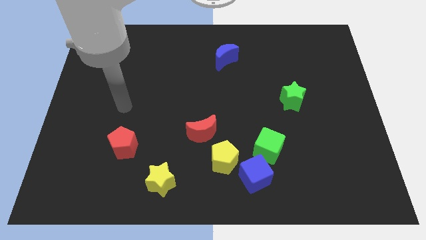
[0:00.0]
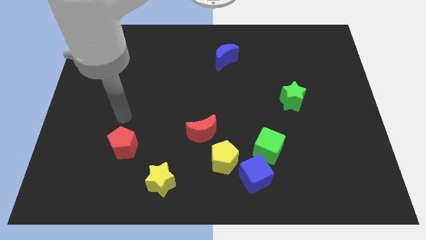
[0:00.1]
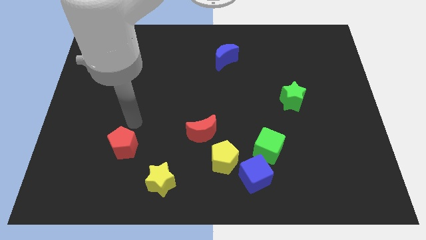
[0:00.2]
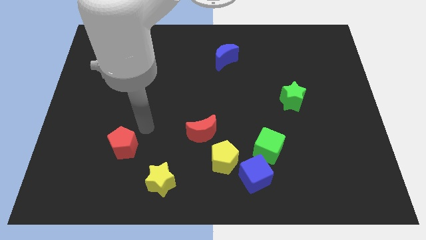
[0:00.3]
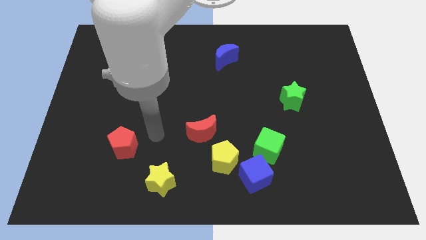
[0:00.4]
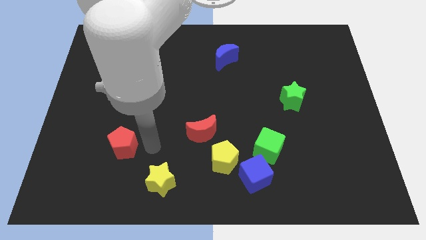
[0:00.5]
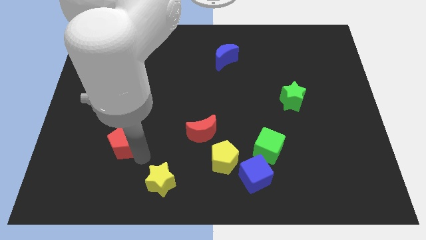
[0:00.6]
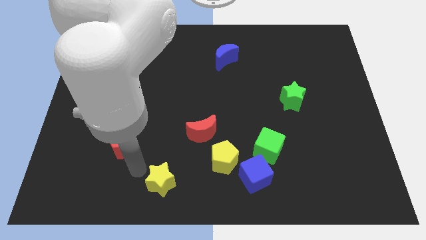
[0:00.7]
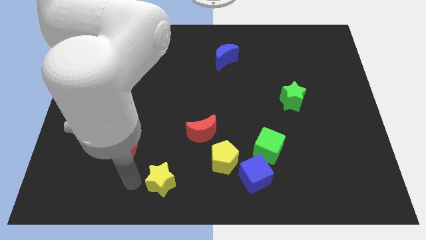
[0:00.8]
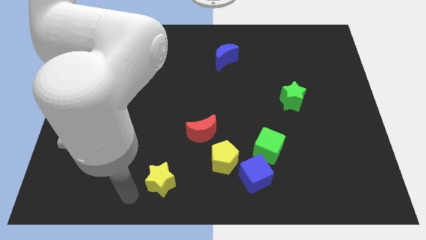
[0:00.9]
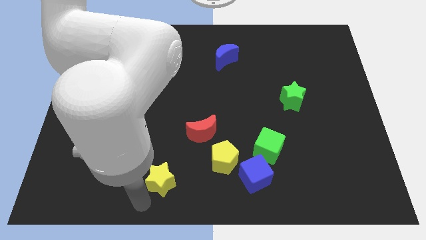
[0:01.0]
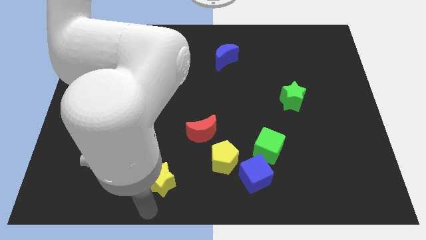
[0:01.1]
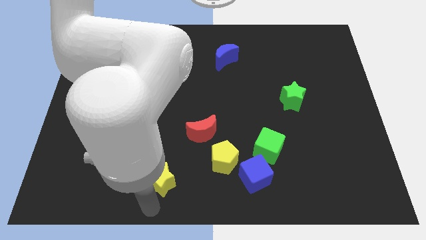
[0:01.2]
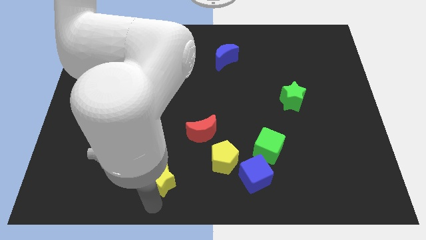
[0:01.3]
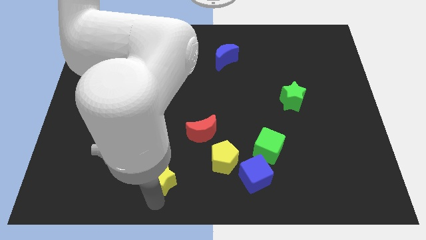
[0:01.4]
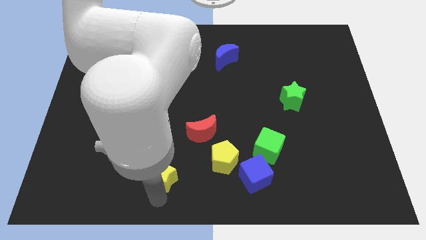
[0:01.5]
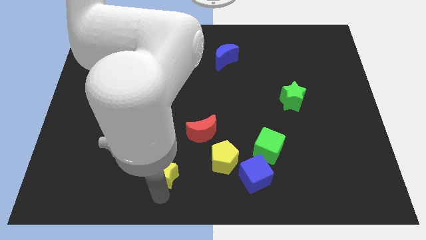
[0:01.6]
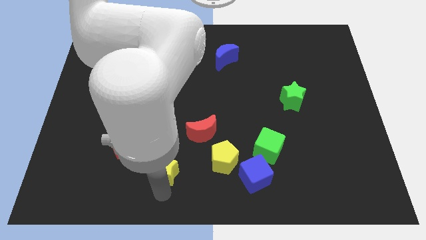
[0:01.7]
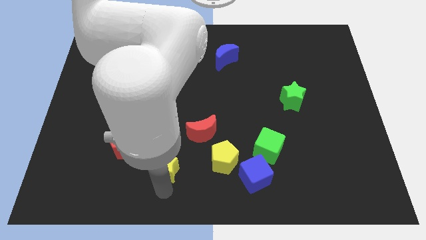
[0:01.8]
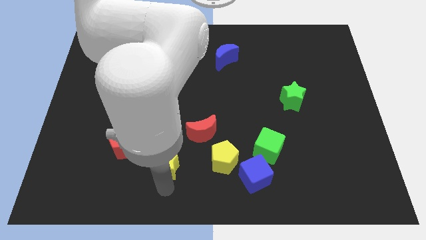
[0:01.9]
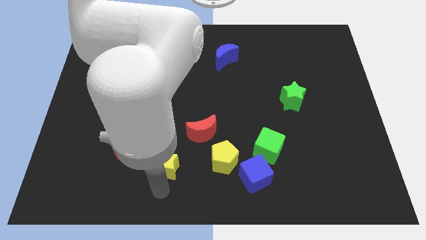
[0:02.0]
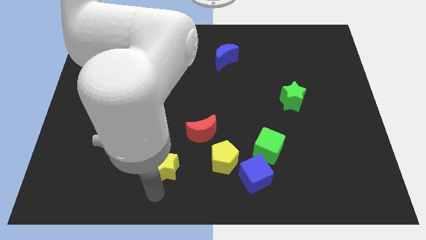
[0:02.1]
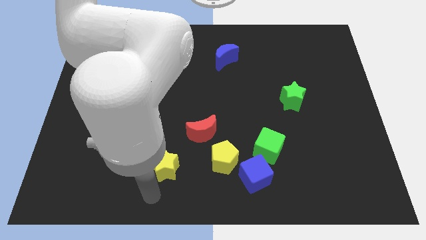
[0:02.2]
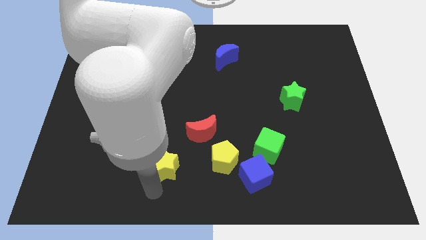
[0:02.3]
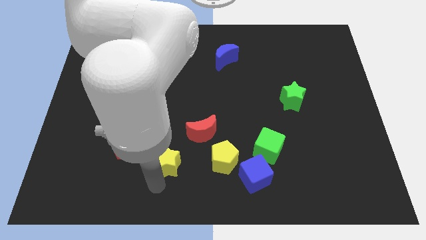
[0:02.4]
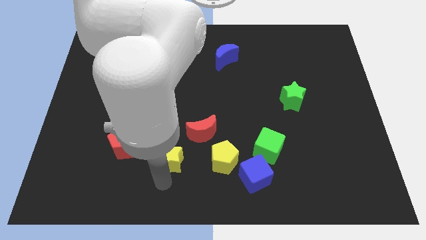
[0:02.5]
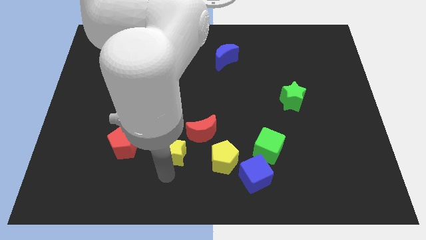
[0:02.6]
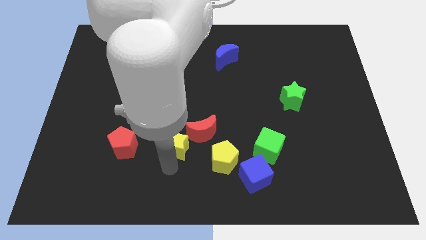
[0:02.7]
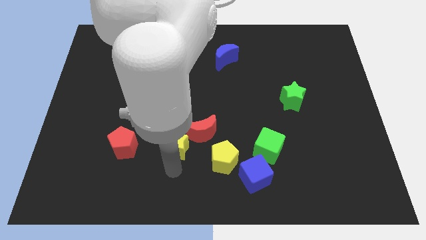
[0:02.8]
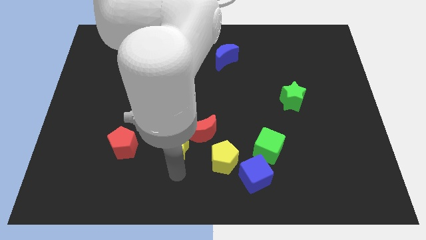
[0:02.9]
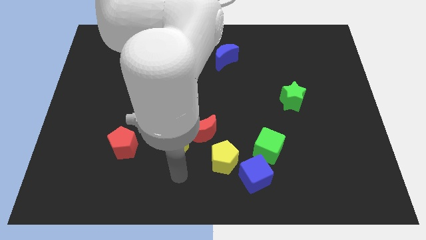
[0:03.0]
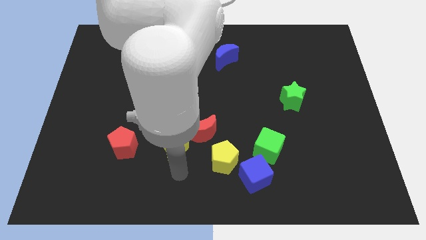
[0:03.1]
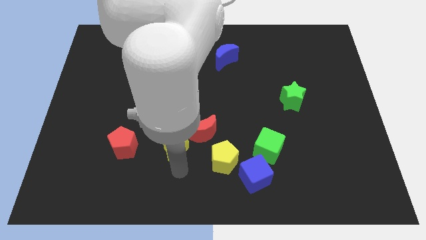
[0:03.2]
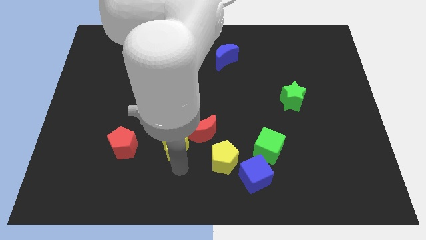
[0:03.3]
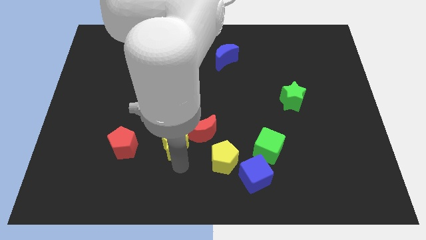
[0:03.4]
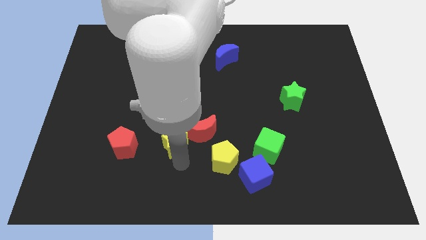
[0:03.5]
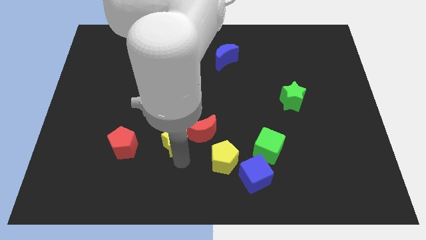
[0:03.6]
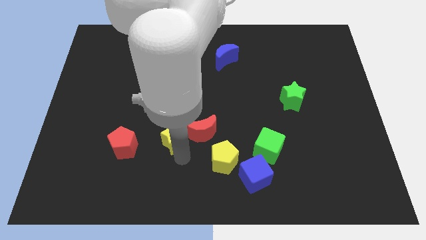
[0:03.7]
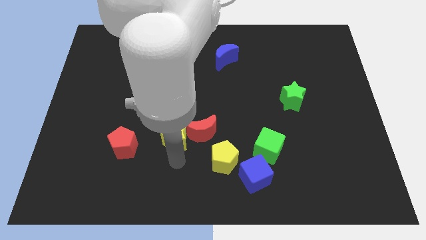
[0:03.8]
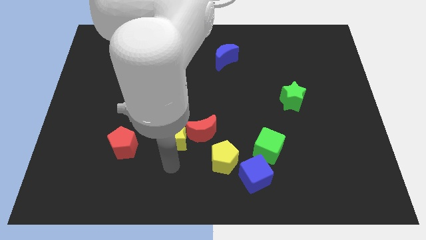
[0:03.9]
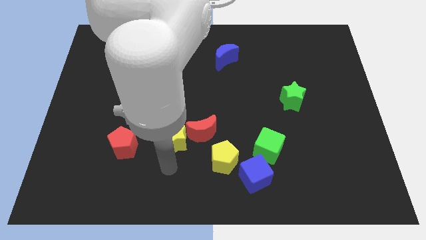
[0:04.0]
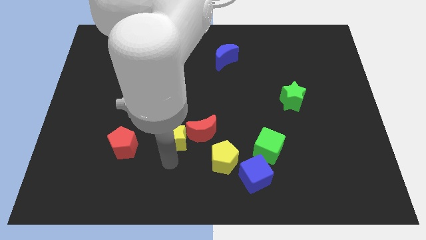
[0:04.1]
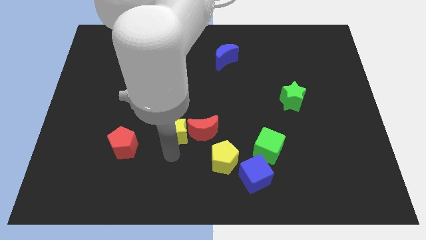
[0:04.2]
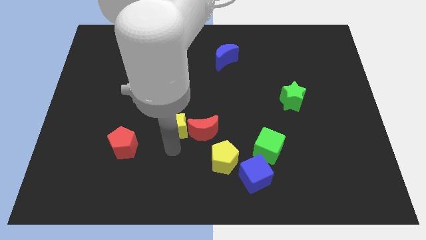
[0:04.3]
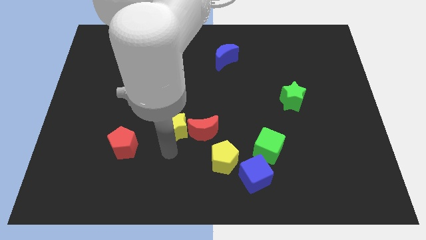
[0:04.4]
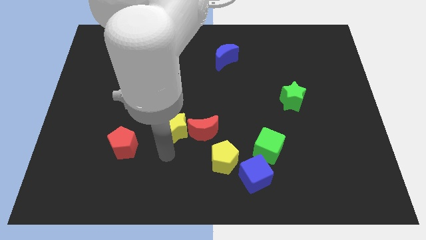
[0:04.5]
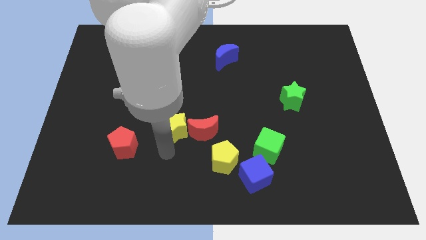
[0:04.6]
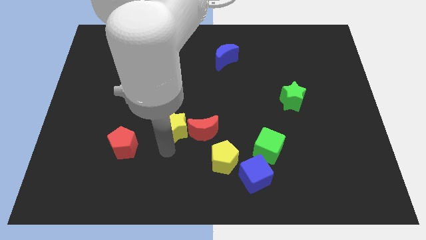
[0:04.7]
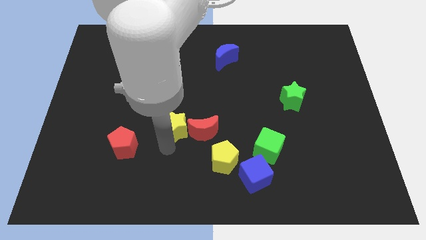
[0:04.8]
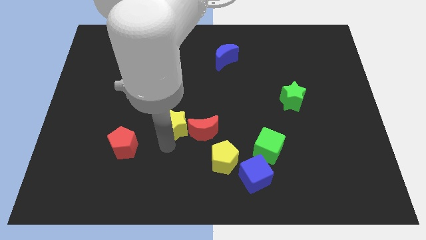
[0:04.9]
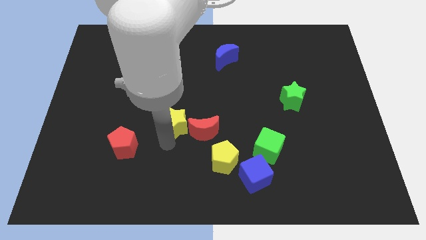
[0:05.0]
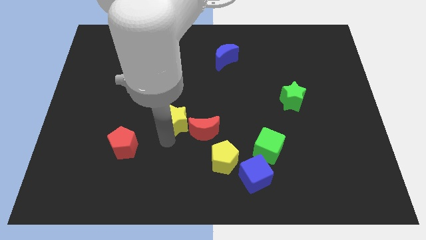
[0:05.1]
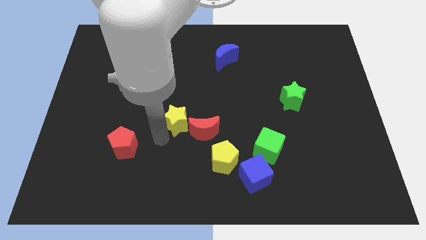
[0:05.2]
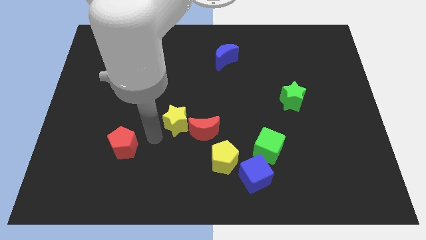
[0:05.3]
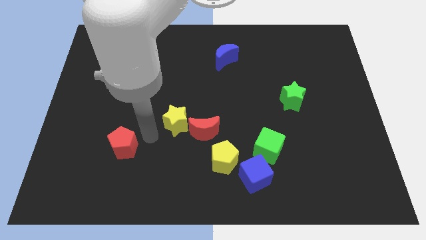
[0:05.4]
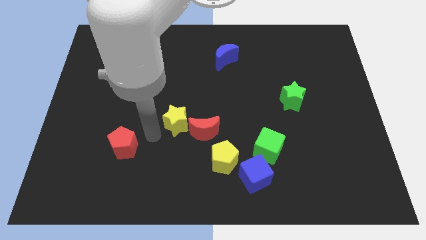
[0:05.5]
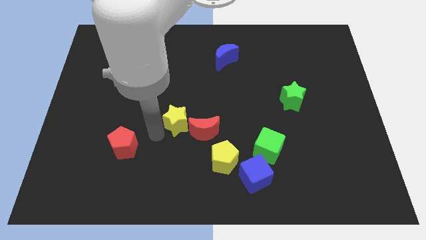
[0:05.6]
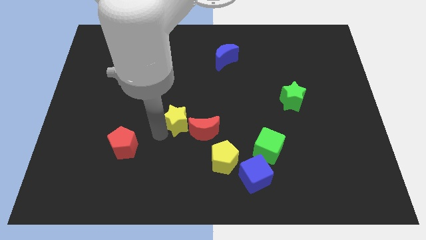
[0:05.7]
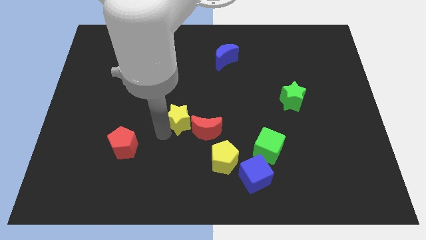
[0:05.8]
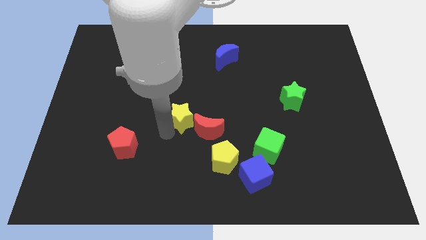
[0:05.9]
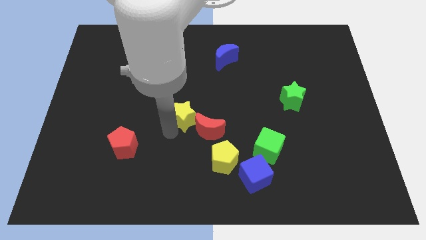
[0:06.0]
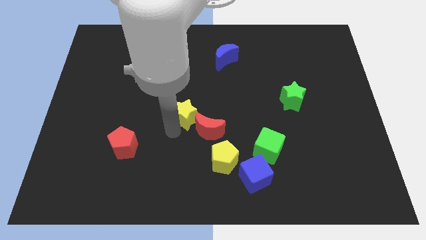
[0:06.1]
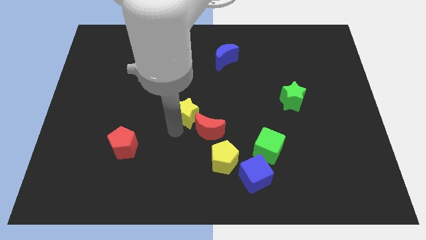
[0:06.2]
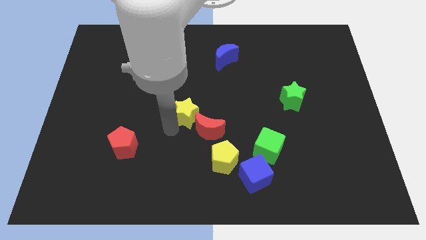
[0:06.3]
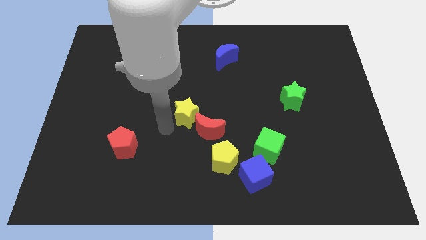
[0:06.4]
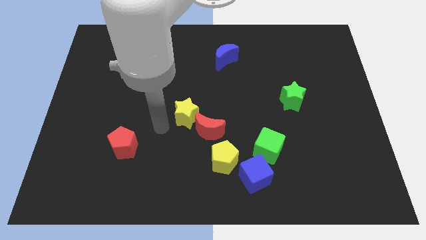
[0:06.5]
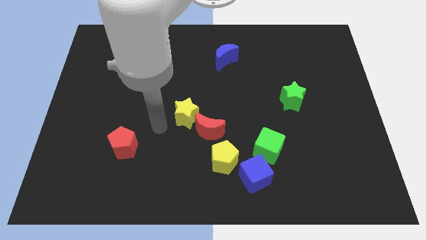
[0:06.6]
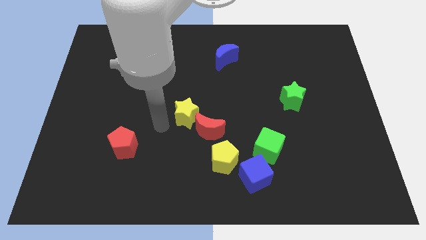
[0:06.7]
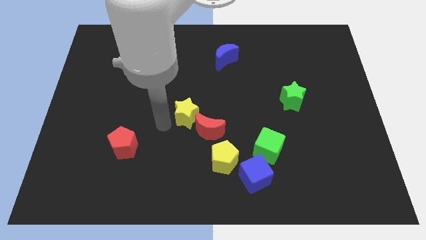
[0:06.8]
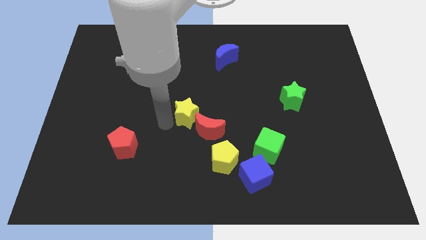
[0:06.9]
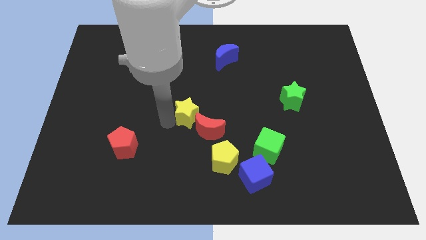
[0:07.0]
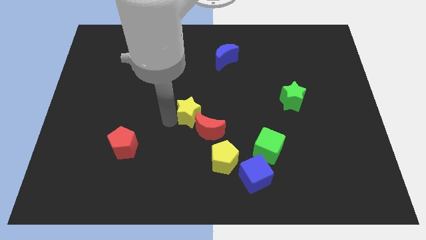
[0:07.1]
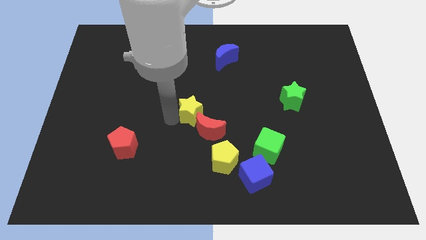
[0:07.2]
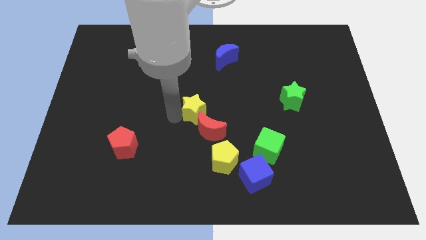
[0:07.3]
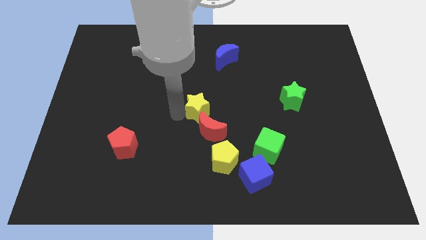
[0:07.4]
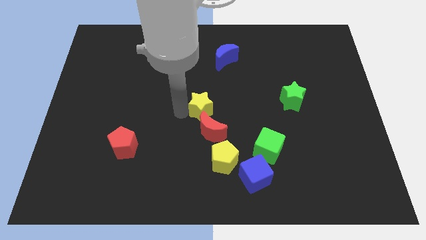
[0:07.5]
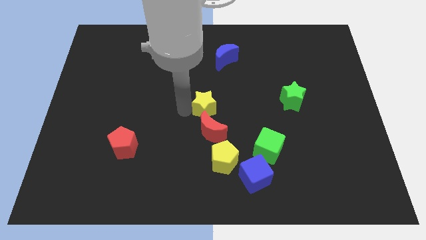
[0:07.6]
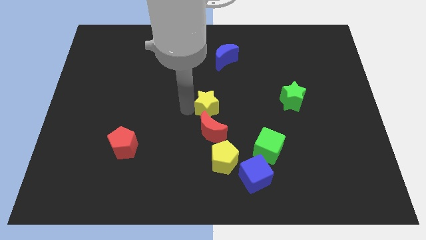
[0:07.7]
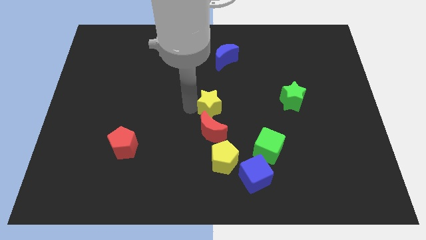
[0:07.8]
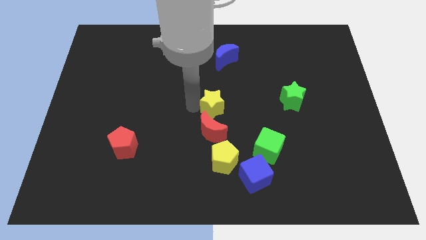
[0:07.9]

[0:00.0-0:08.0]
push the yellow star diagonally up and to the right of the red moon

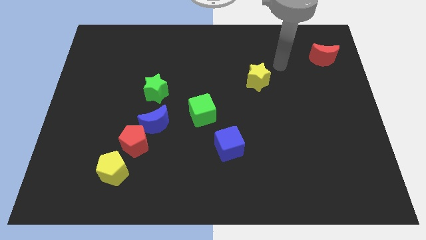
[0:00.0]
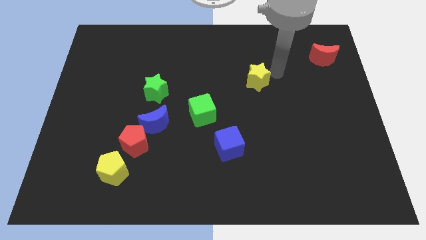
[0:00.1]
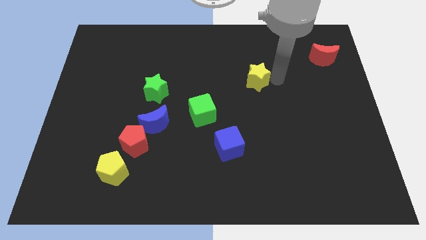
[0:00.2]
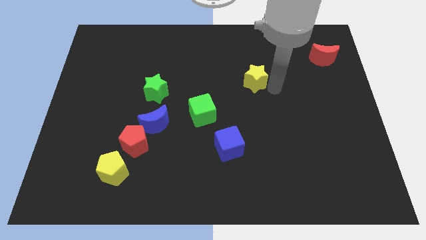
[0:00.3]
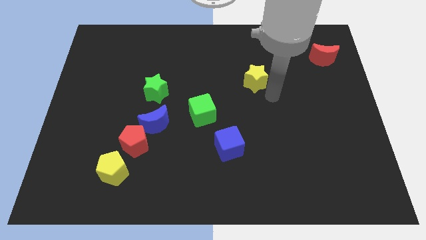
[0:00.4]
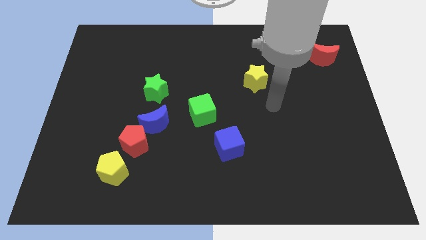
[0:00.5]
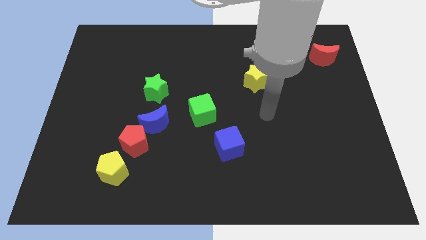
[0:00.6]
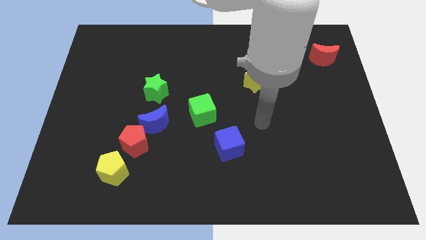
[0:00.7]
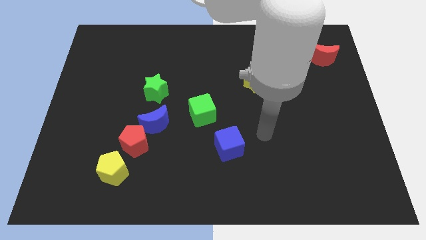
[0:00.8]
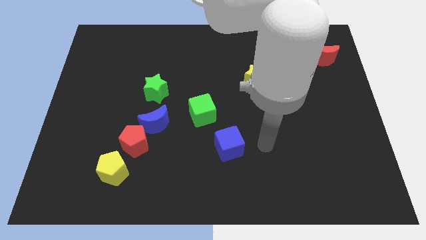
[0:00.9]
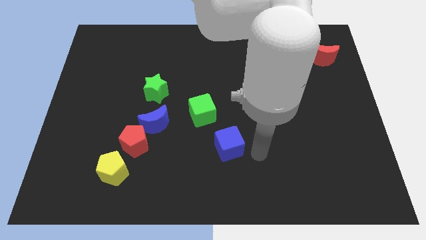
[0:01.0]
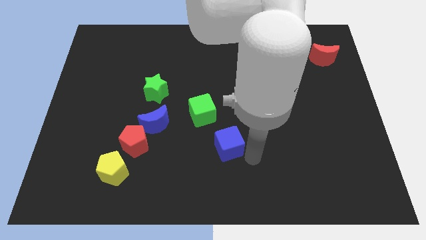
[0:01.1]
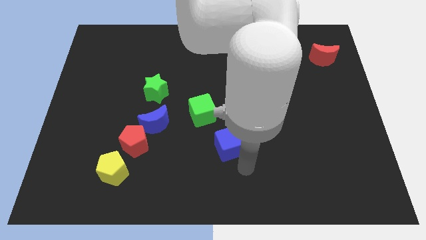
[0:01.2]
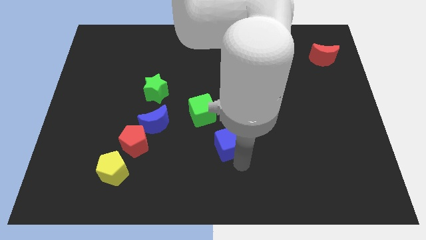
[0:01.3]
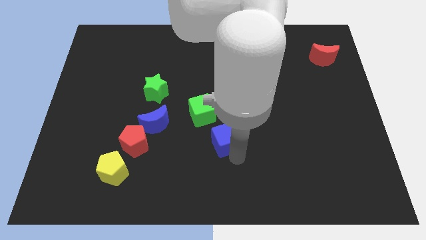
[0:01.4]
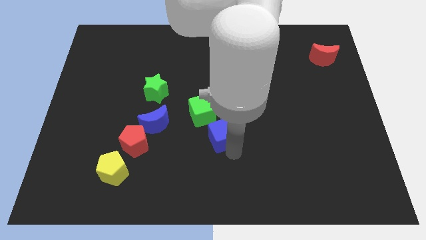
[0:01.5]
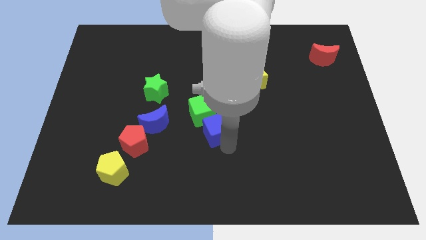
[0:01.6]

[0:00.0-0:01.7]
move the blue cube right of the blue moon
